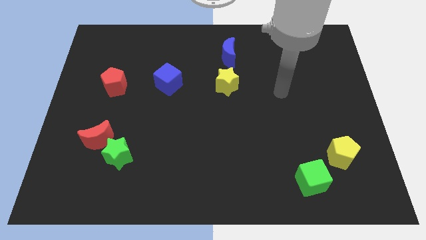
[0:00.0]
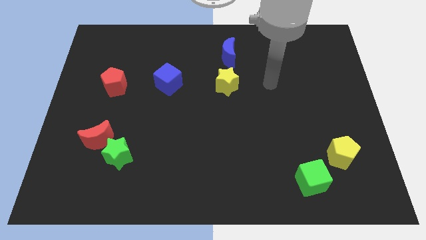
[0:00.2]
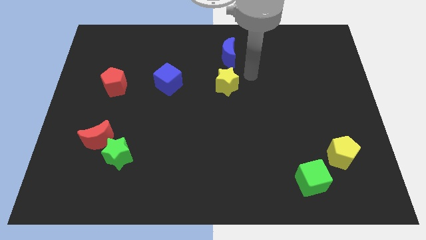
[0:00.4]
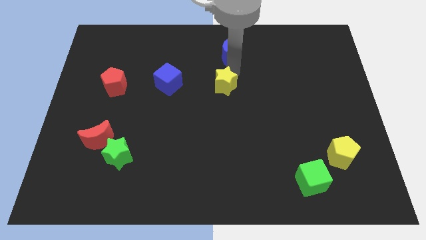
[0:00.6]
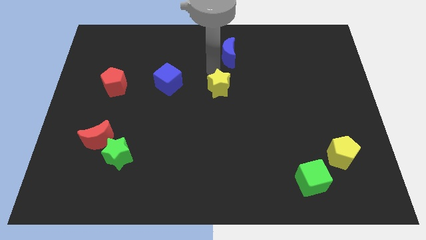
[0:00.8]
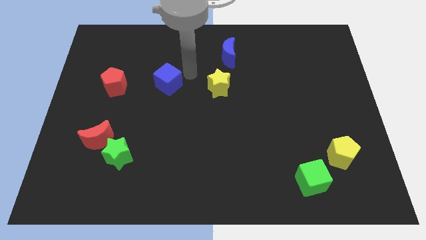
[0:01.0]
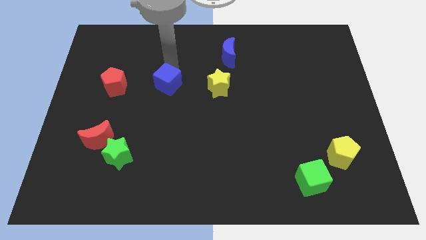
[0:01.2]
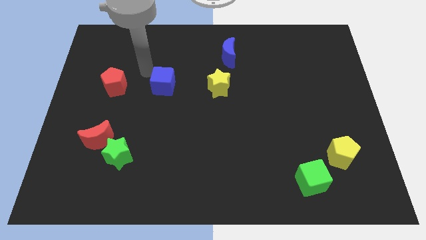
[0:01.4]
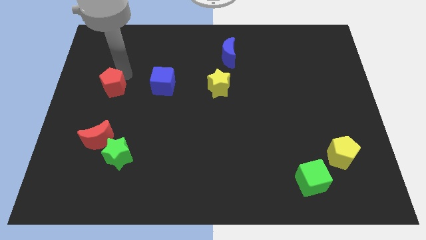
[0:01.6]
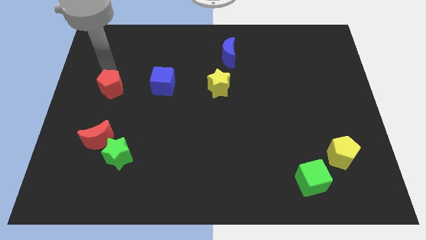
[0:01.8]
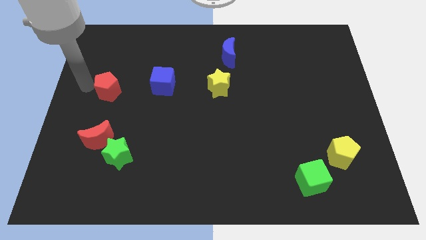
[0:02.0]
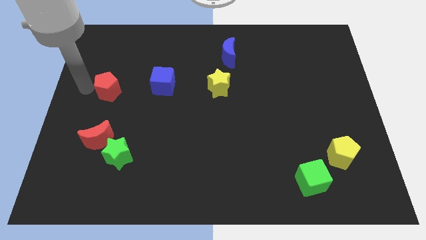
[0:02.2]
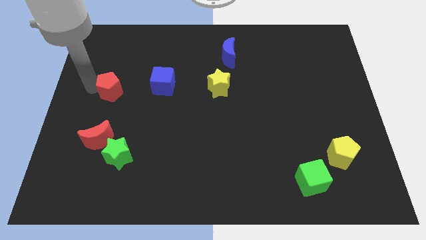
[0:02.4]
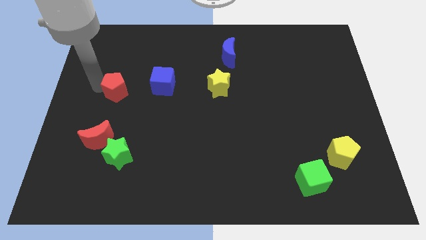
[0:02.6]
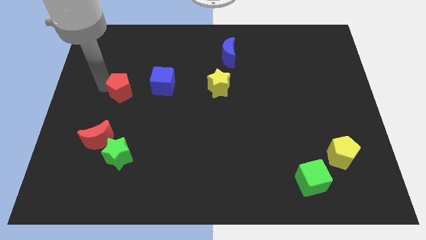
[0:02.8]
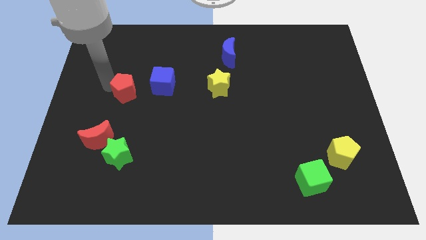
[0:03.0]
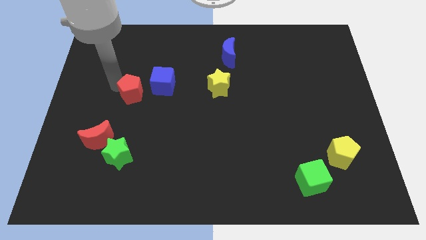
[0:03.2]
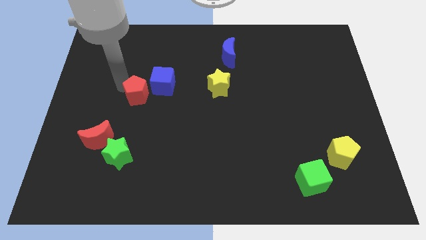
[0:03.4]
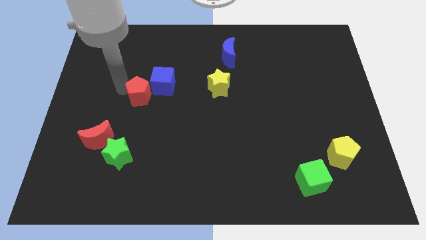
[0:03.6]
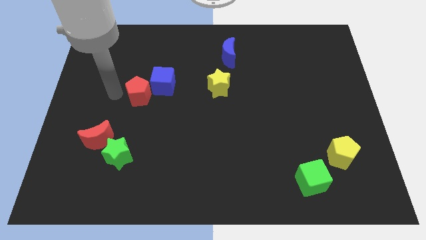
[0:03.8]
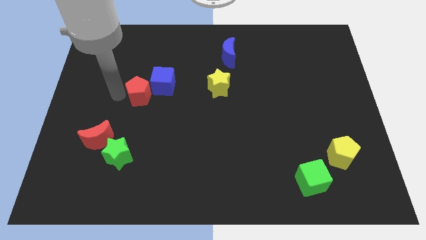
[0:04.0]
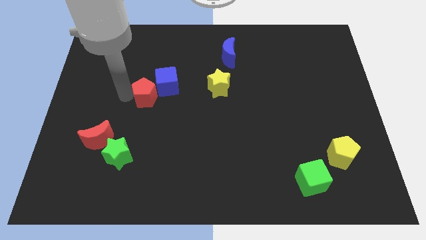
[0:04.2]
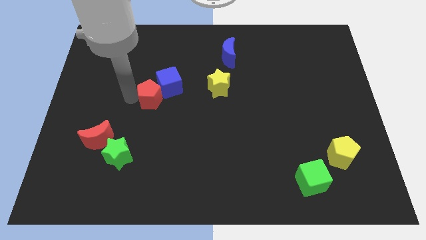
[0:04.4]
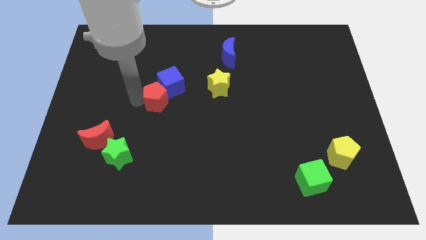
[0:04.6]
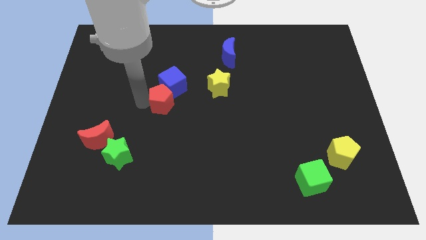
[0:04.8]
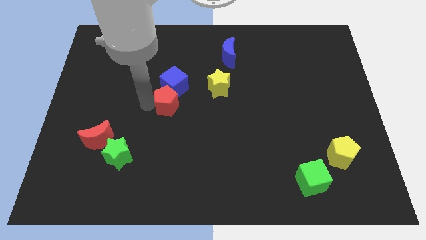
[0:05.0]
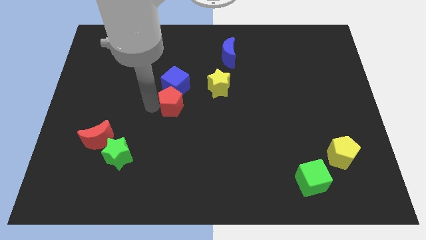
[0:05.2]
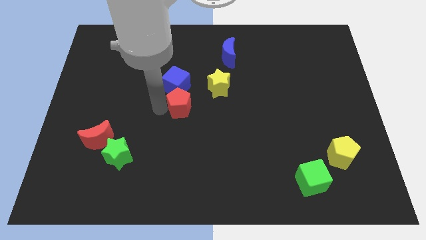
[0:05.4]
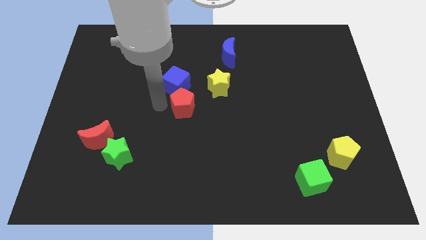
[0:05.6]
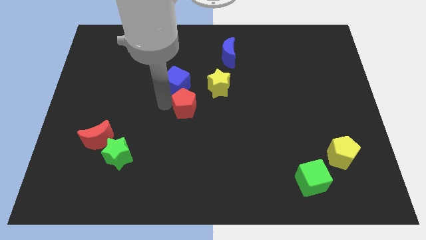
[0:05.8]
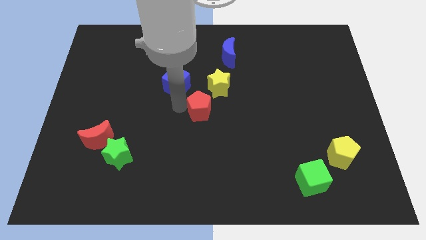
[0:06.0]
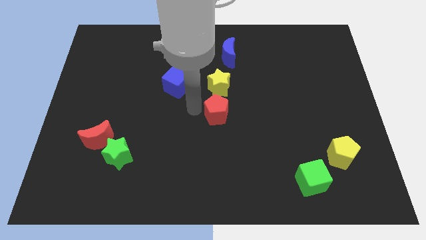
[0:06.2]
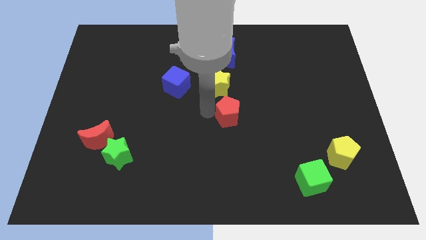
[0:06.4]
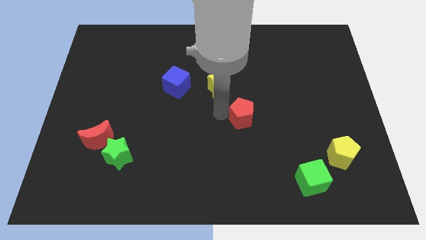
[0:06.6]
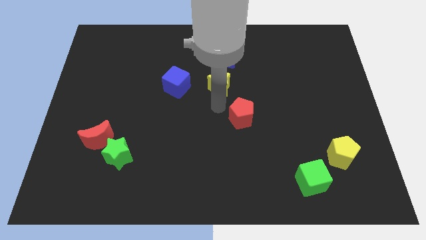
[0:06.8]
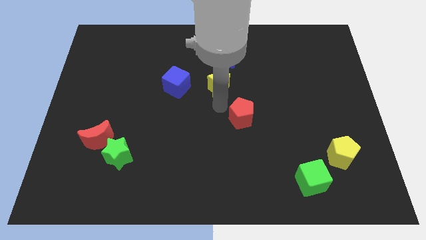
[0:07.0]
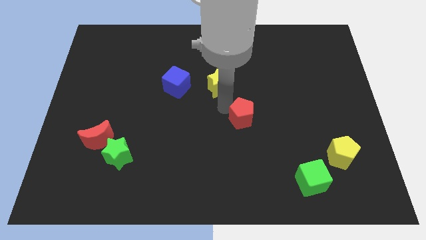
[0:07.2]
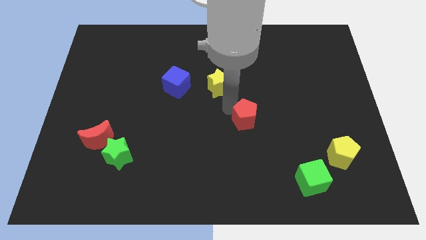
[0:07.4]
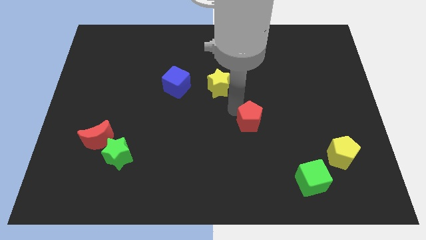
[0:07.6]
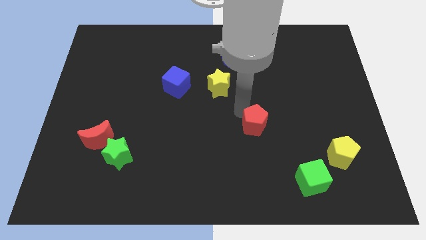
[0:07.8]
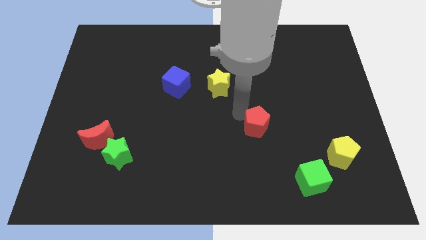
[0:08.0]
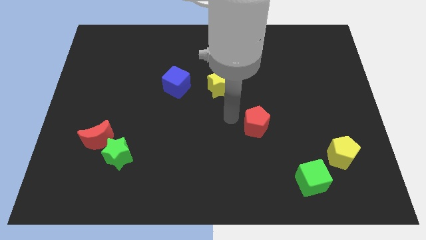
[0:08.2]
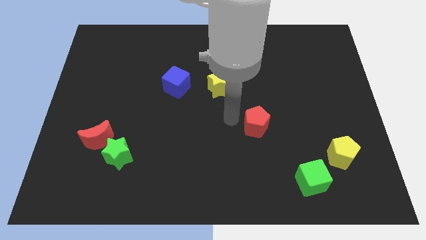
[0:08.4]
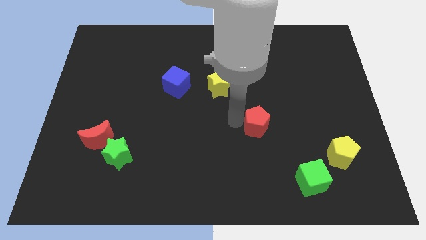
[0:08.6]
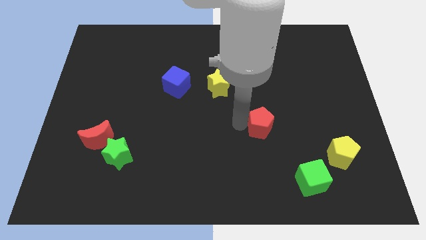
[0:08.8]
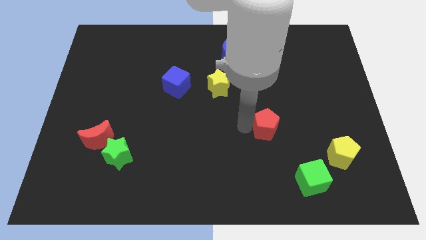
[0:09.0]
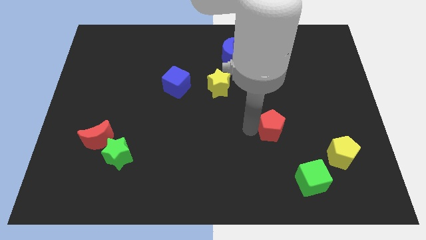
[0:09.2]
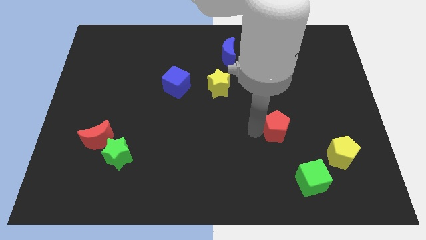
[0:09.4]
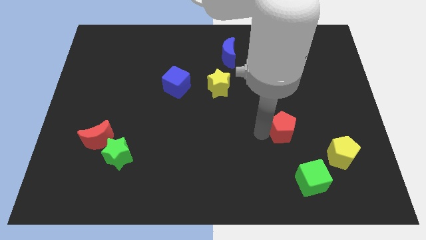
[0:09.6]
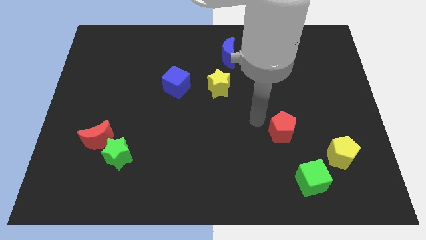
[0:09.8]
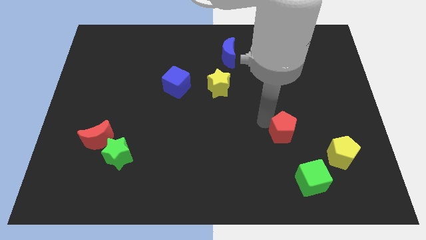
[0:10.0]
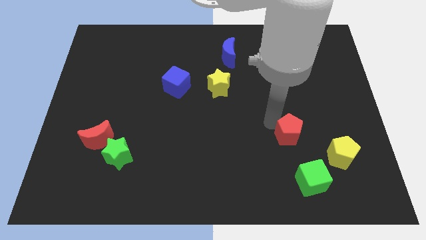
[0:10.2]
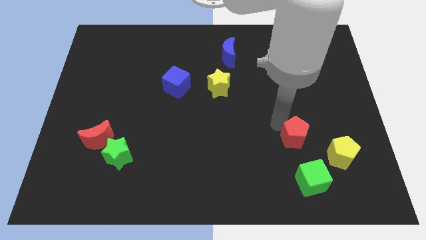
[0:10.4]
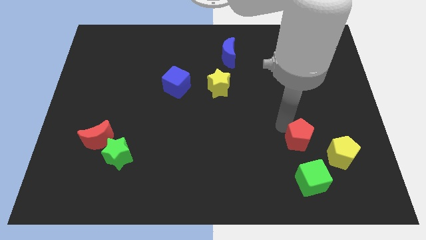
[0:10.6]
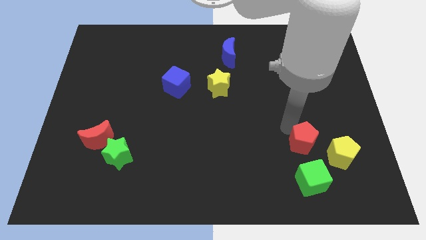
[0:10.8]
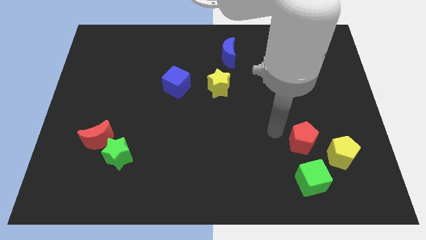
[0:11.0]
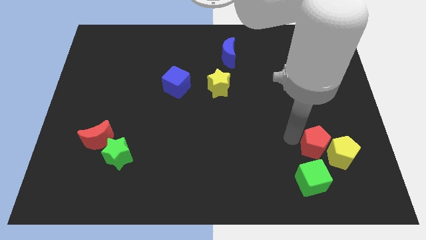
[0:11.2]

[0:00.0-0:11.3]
push the red pentagon towards the yellow pentagon
